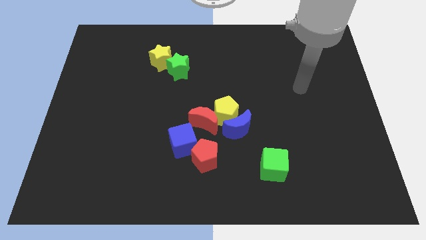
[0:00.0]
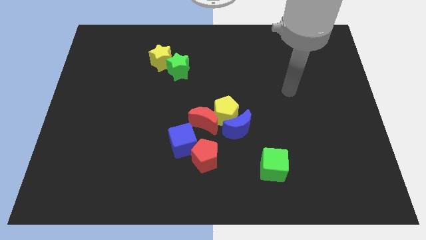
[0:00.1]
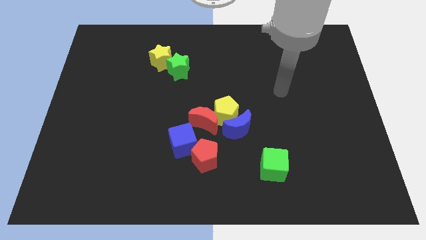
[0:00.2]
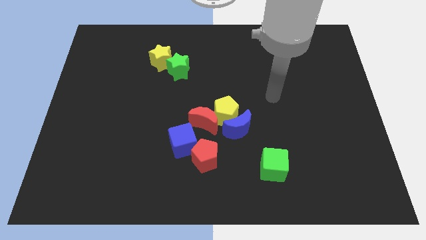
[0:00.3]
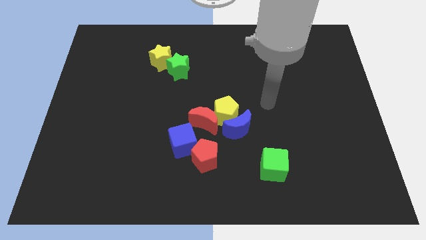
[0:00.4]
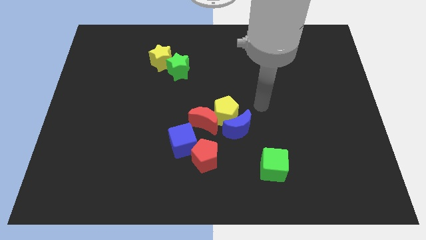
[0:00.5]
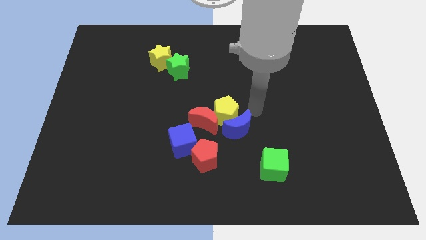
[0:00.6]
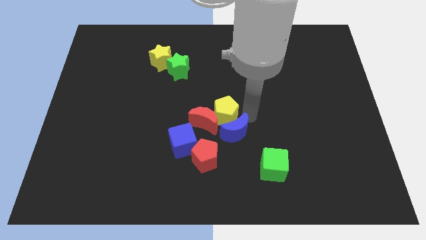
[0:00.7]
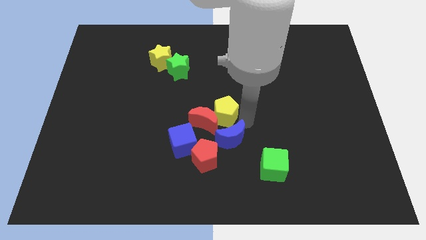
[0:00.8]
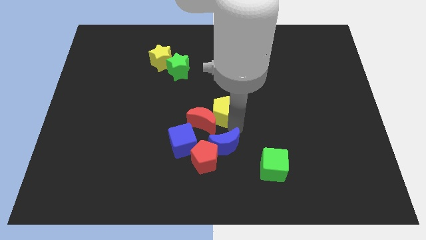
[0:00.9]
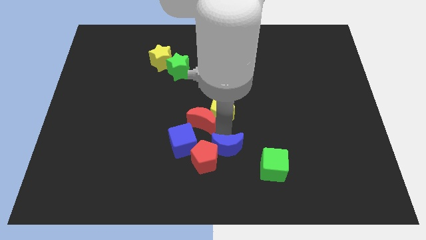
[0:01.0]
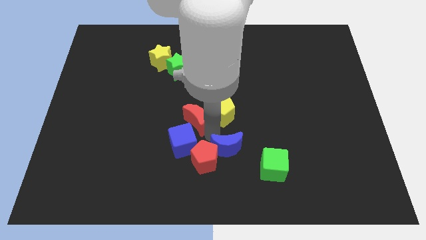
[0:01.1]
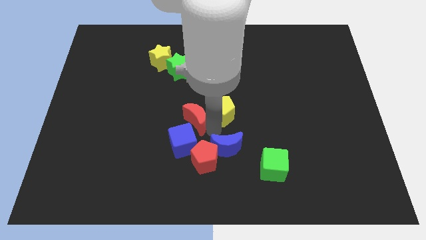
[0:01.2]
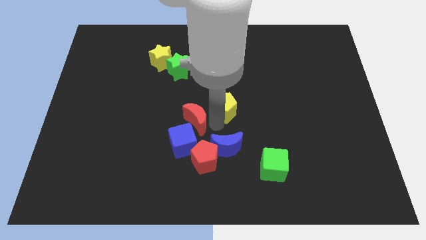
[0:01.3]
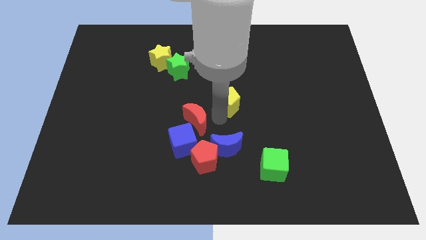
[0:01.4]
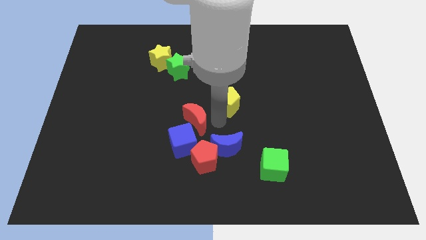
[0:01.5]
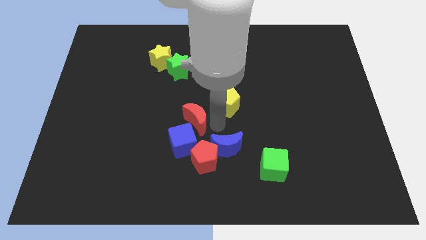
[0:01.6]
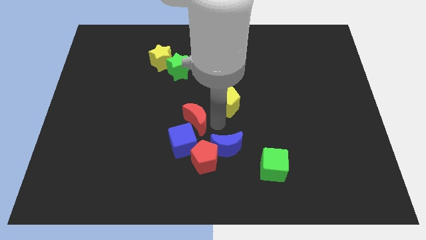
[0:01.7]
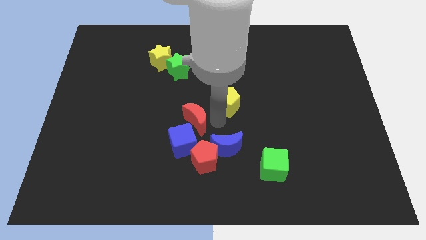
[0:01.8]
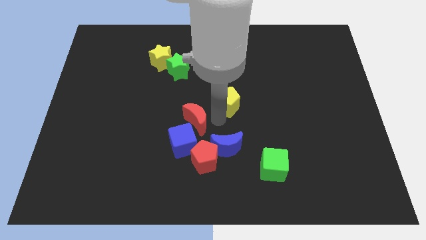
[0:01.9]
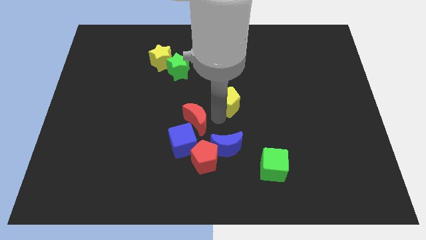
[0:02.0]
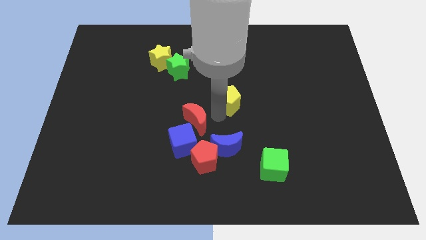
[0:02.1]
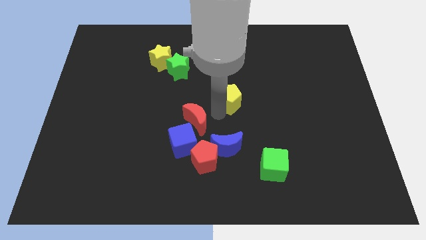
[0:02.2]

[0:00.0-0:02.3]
pull the yellow pentagon apart from the red moon and blue moon

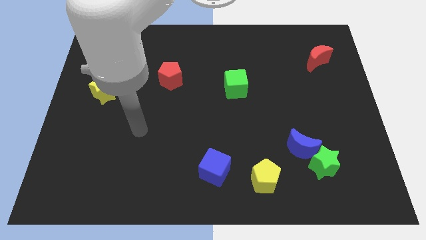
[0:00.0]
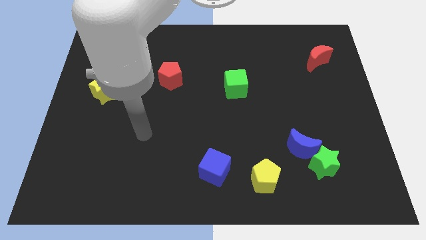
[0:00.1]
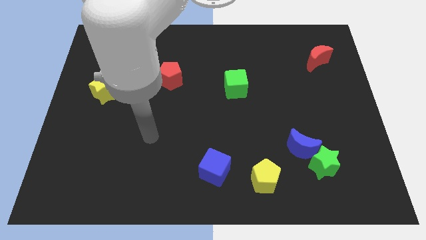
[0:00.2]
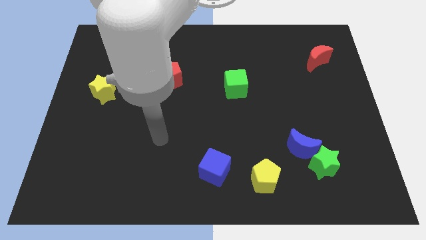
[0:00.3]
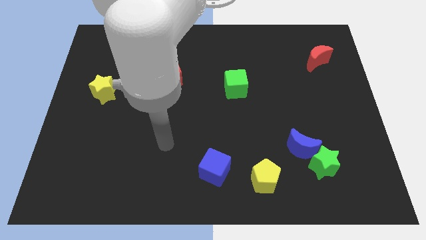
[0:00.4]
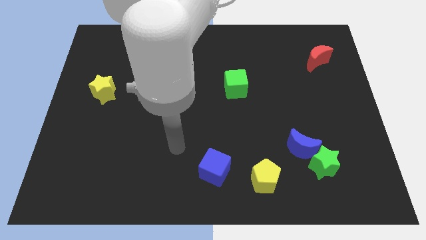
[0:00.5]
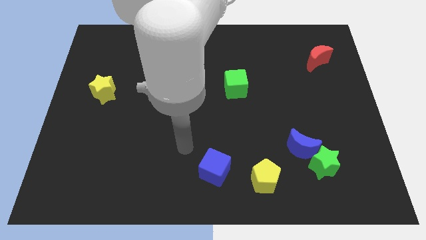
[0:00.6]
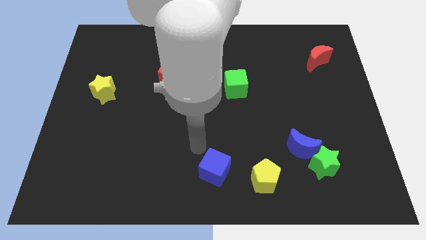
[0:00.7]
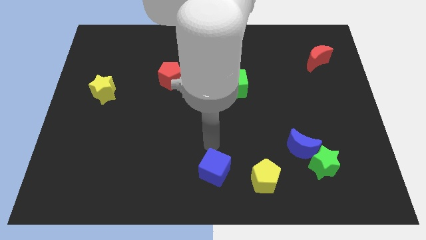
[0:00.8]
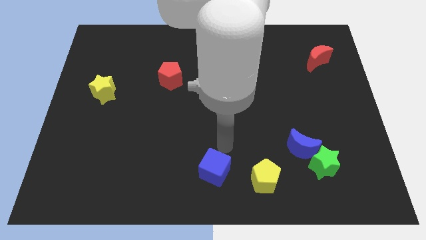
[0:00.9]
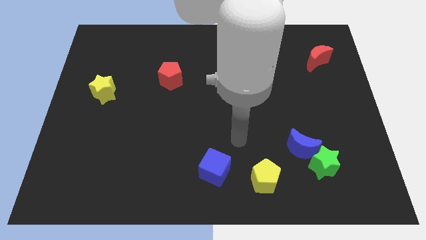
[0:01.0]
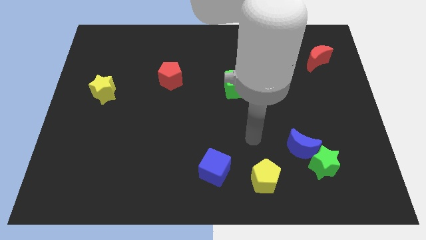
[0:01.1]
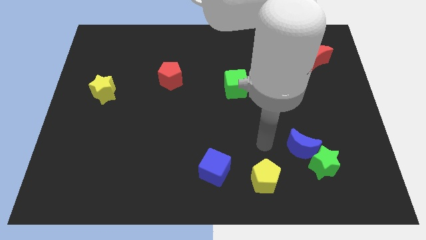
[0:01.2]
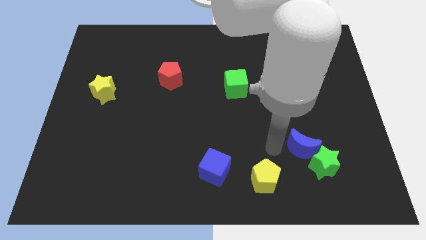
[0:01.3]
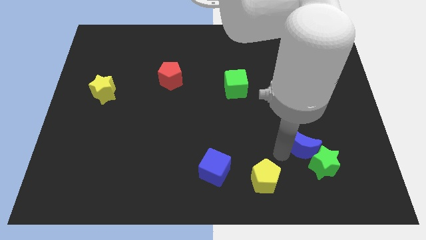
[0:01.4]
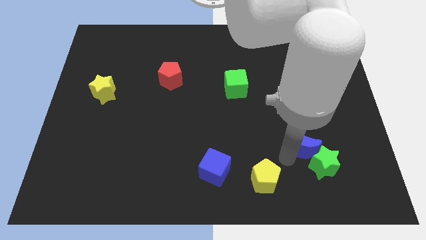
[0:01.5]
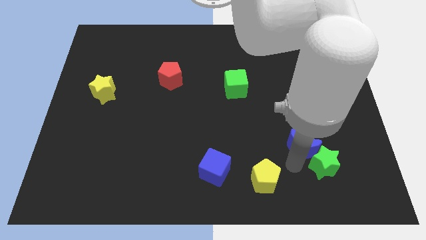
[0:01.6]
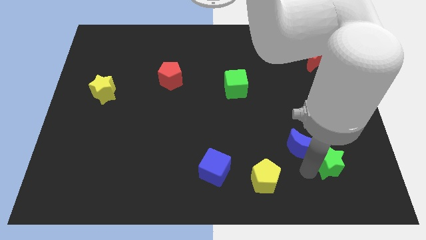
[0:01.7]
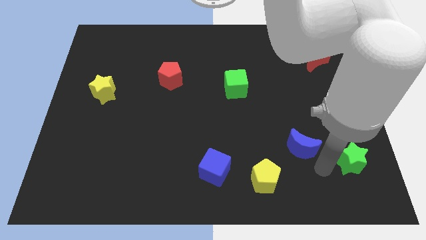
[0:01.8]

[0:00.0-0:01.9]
pull the blue moon apart from the green star

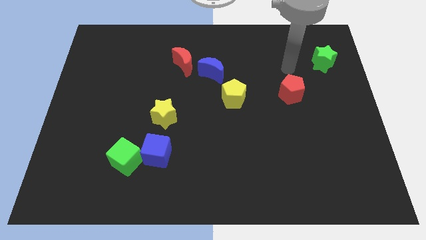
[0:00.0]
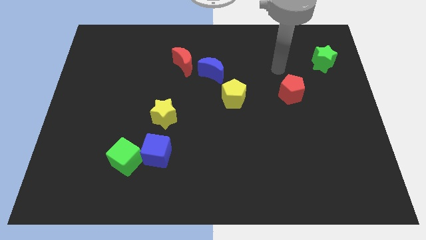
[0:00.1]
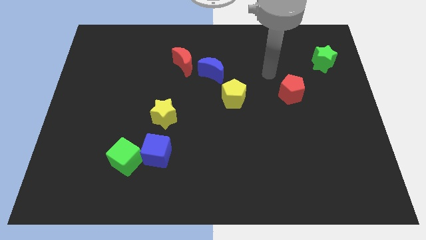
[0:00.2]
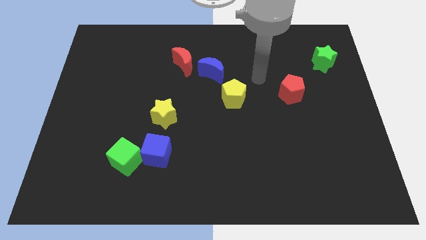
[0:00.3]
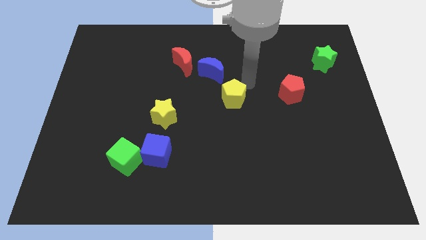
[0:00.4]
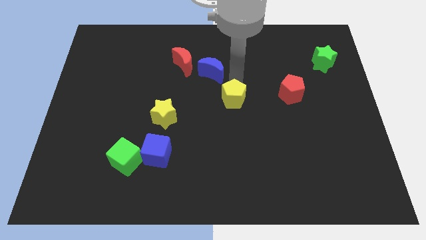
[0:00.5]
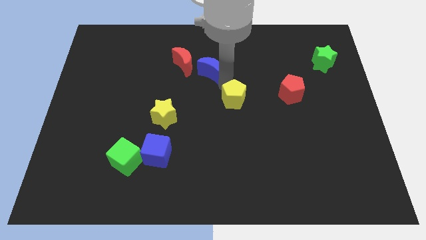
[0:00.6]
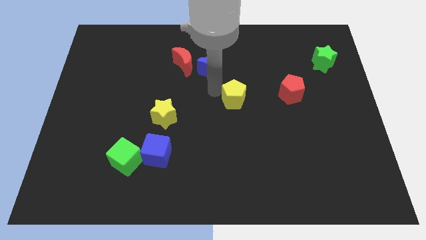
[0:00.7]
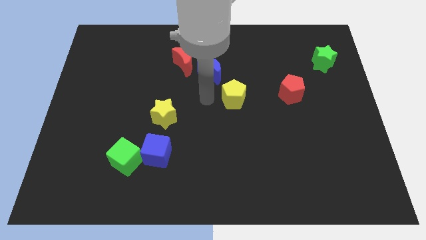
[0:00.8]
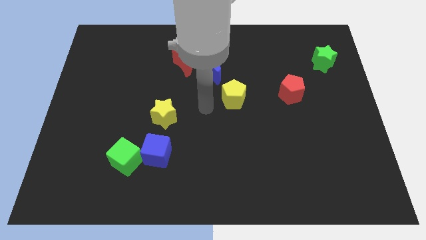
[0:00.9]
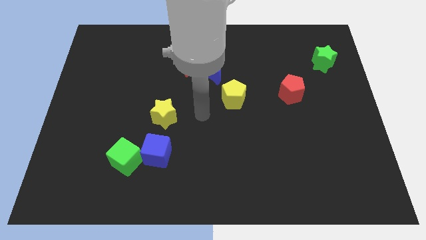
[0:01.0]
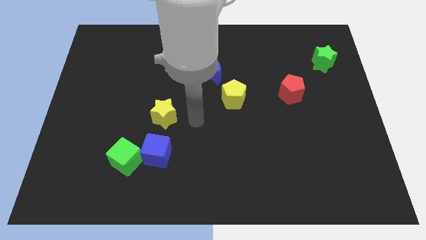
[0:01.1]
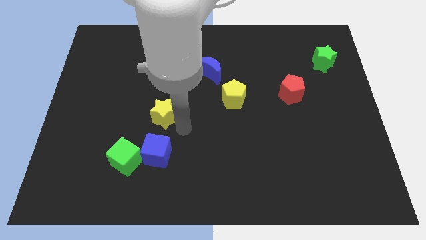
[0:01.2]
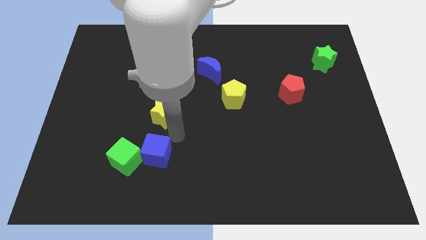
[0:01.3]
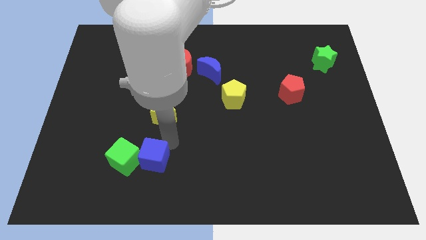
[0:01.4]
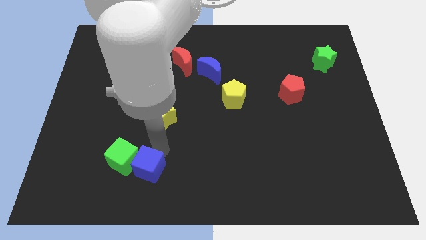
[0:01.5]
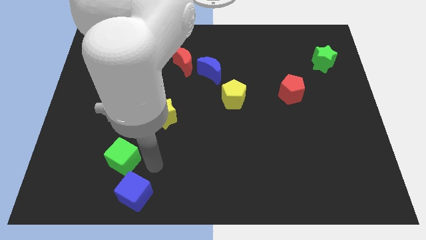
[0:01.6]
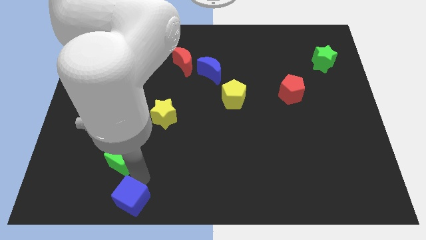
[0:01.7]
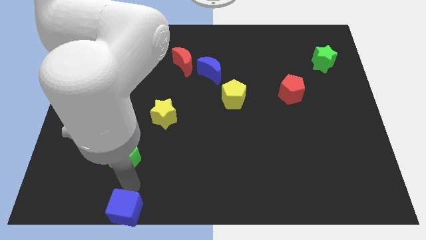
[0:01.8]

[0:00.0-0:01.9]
separate the green cube from the blue cube

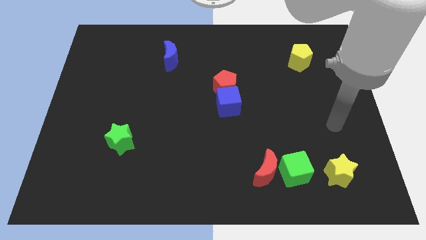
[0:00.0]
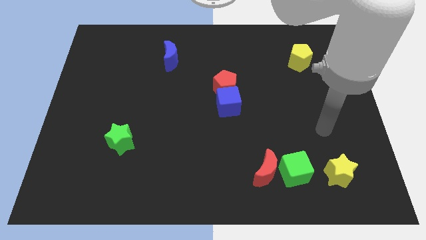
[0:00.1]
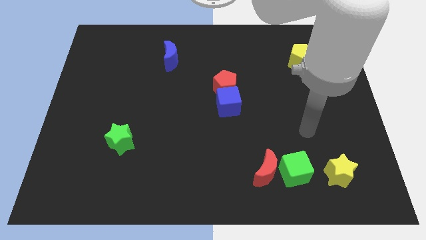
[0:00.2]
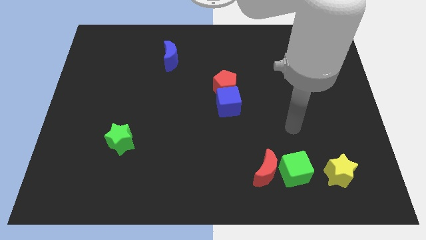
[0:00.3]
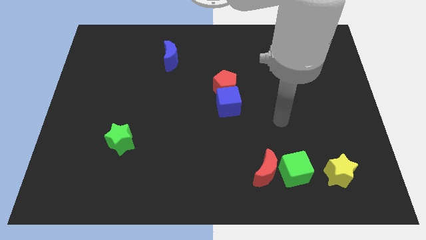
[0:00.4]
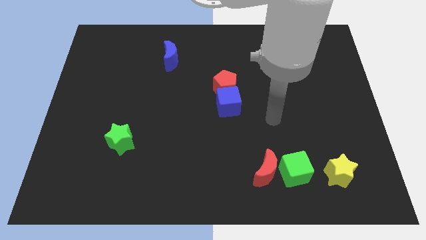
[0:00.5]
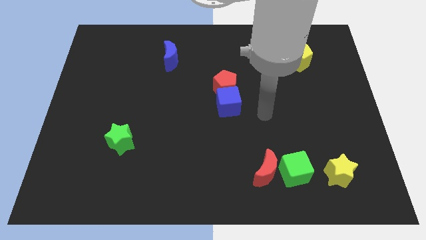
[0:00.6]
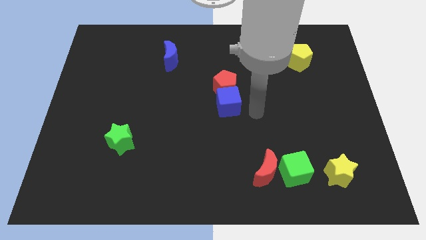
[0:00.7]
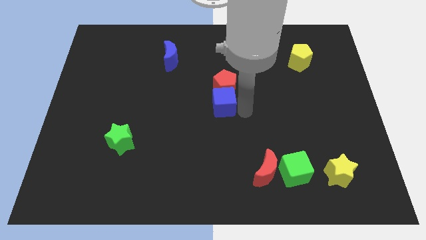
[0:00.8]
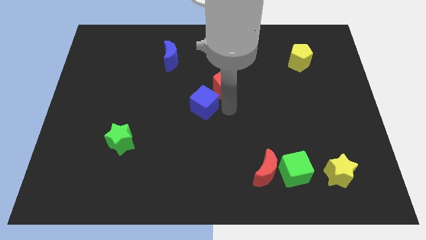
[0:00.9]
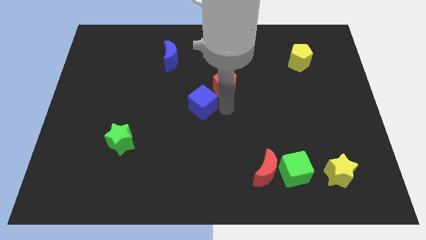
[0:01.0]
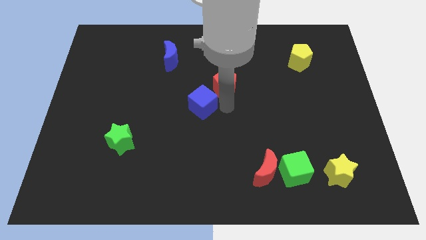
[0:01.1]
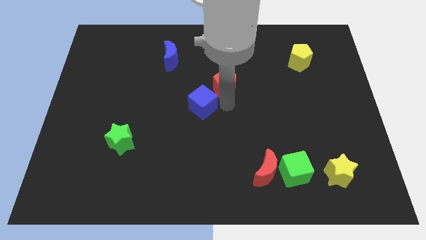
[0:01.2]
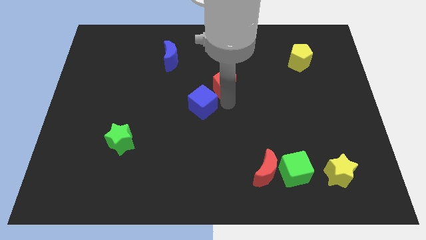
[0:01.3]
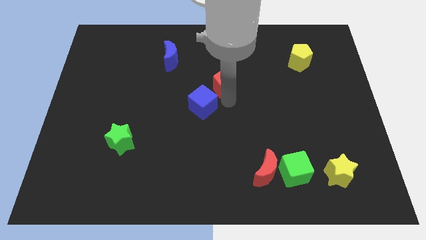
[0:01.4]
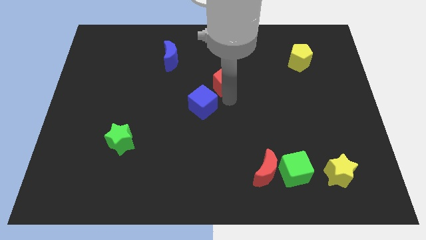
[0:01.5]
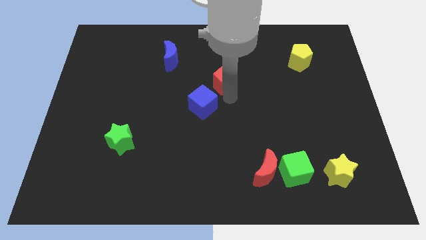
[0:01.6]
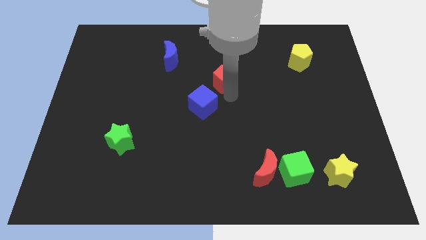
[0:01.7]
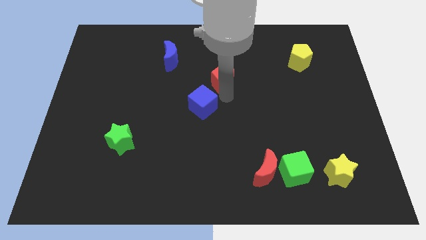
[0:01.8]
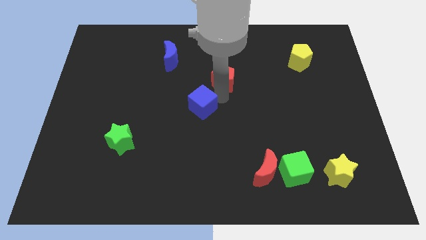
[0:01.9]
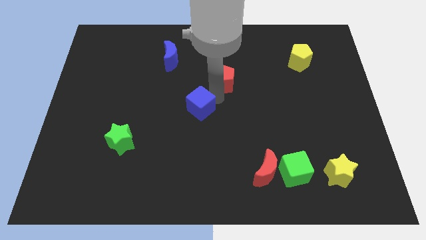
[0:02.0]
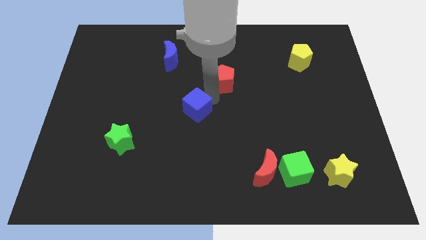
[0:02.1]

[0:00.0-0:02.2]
move the red pentagon away from the blue cube

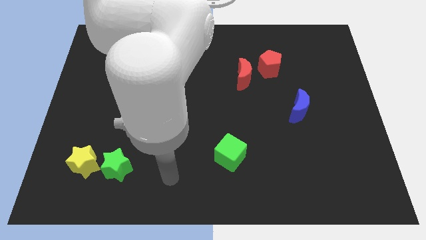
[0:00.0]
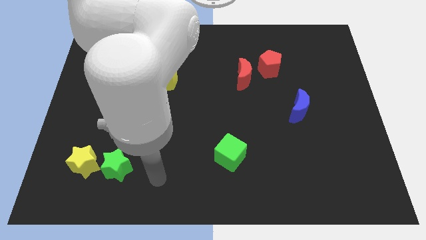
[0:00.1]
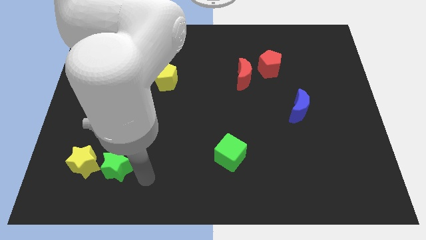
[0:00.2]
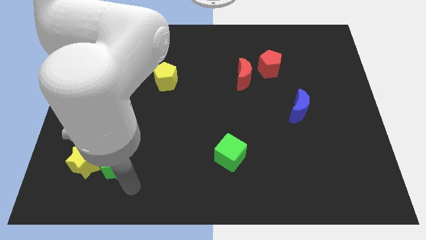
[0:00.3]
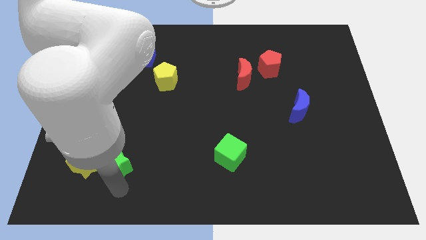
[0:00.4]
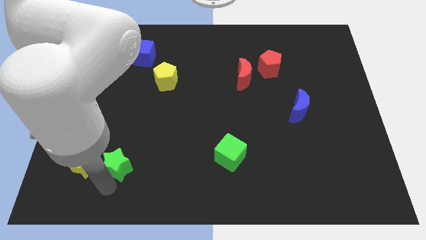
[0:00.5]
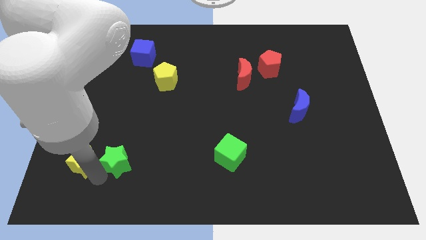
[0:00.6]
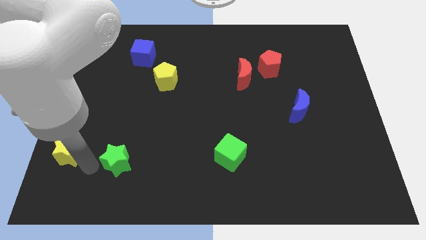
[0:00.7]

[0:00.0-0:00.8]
pull the green star apart from the yellow star

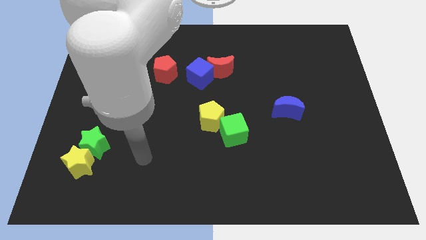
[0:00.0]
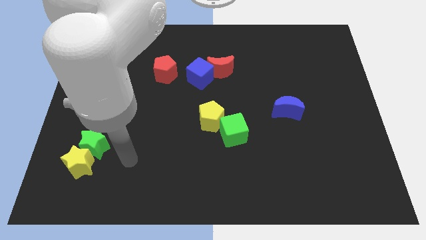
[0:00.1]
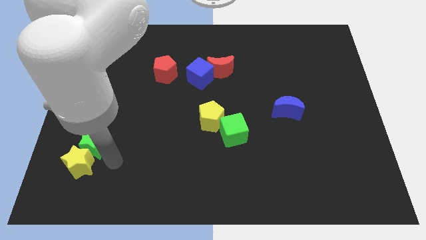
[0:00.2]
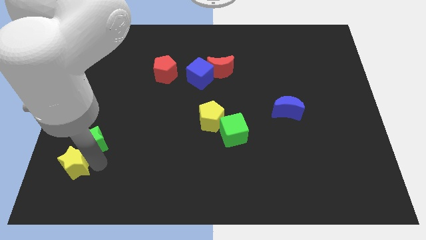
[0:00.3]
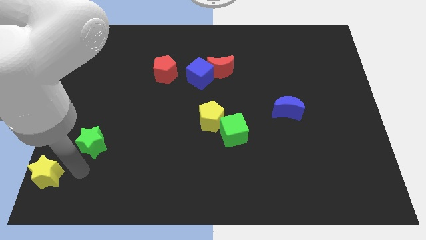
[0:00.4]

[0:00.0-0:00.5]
separate the green star from the yellow star
